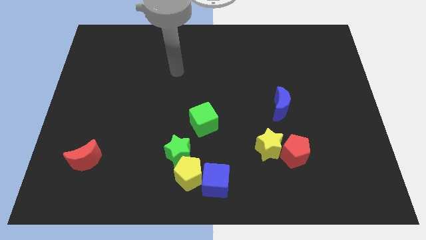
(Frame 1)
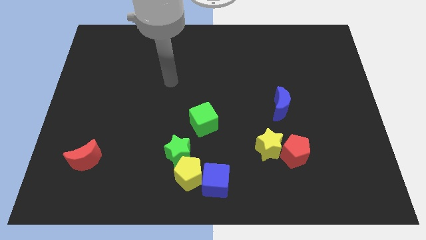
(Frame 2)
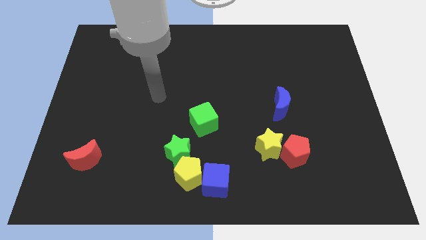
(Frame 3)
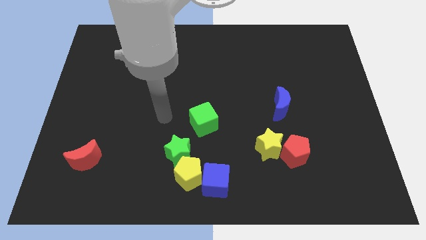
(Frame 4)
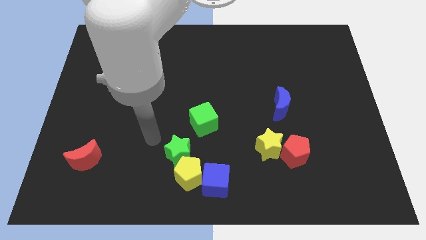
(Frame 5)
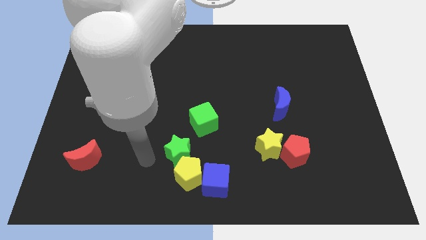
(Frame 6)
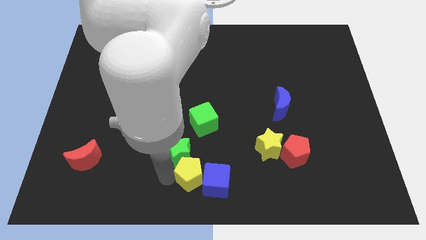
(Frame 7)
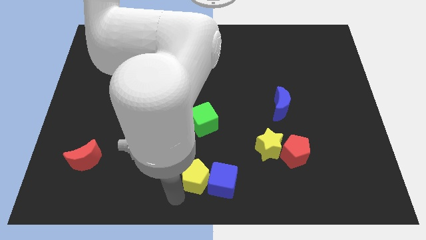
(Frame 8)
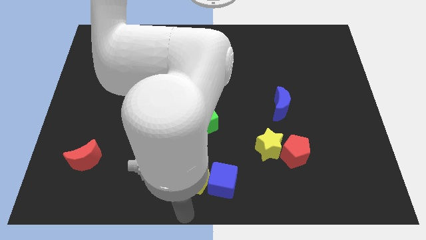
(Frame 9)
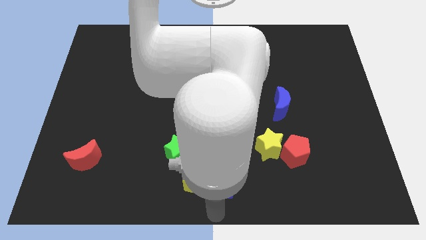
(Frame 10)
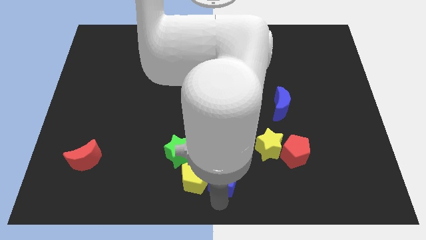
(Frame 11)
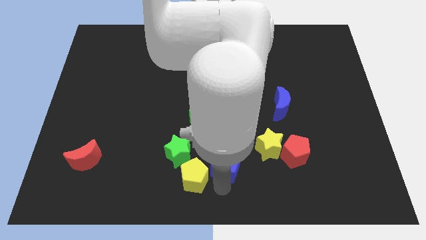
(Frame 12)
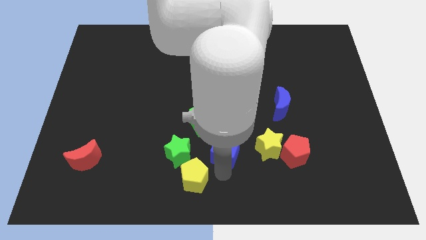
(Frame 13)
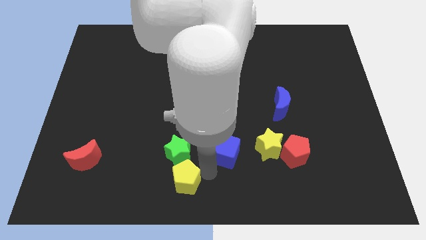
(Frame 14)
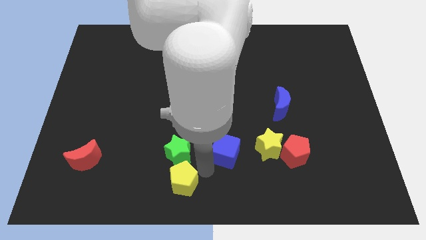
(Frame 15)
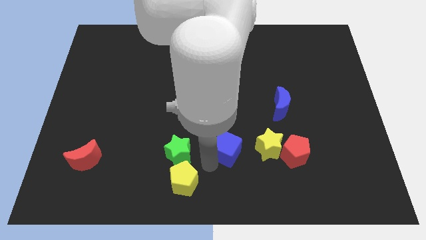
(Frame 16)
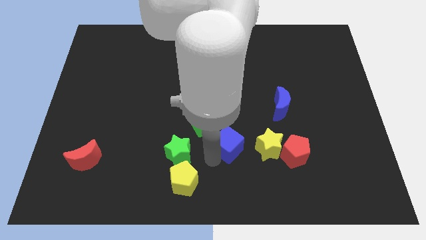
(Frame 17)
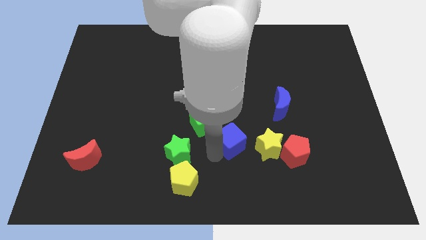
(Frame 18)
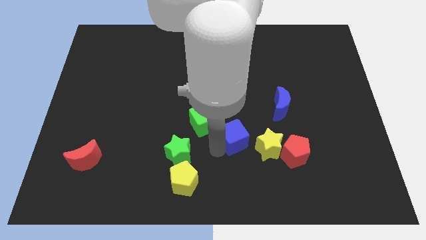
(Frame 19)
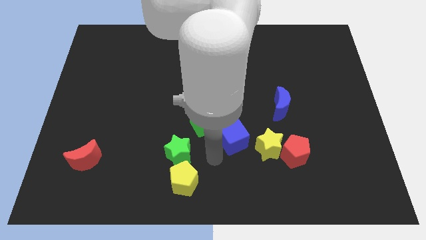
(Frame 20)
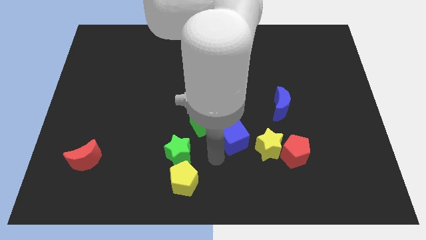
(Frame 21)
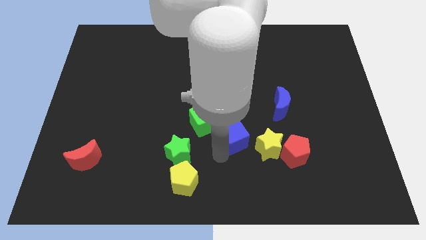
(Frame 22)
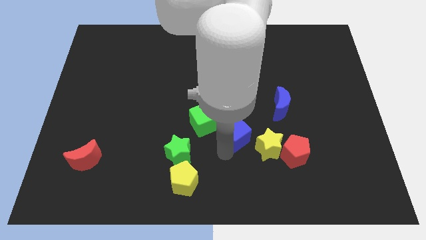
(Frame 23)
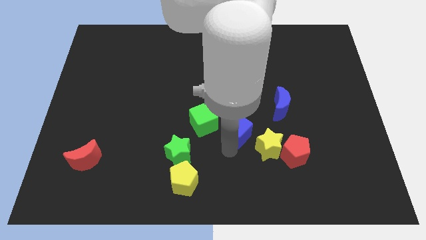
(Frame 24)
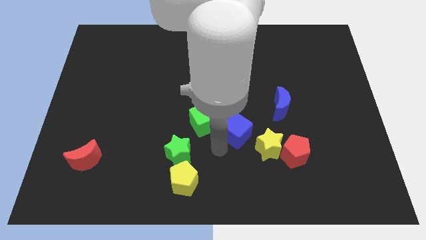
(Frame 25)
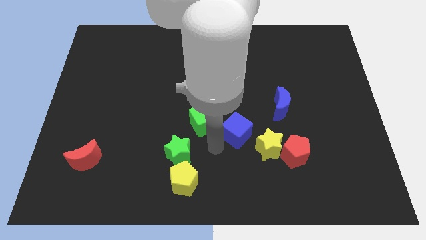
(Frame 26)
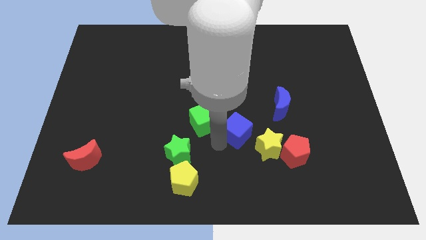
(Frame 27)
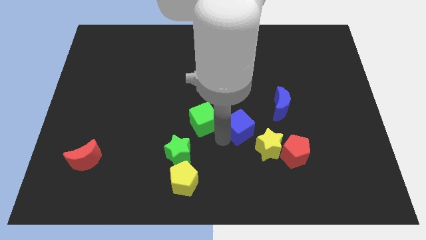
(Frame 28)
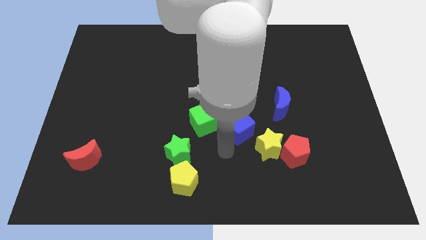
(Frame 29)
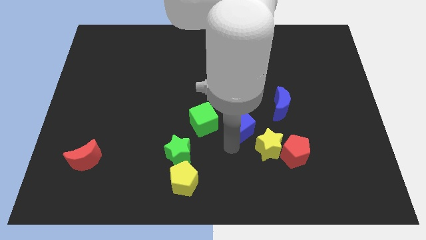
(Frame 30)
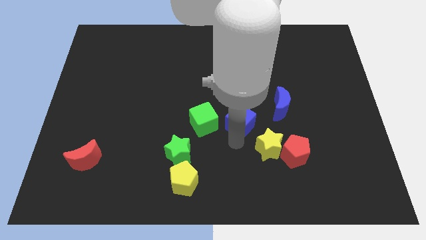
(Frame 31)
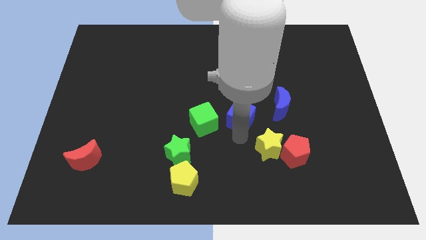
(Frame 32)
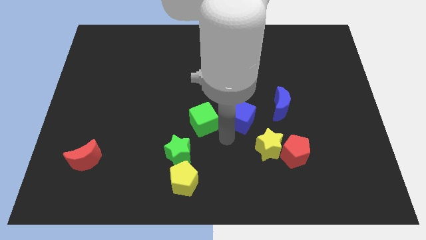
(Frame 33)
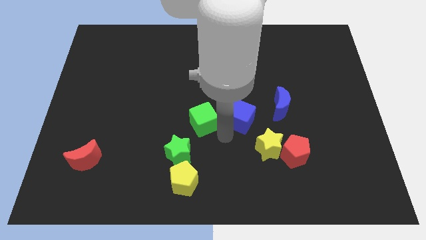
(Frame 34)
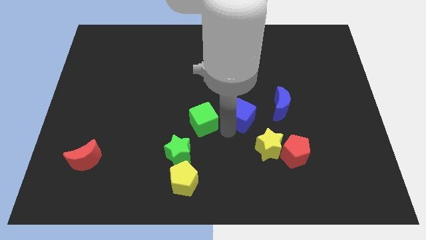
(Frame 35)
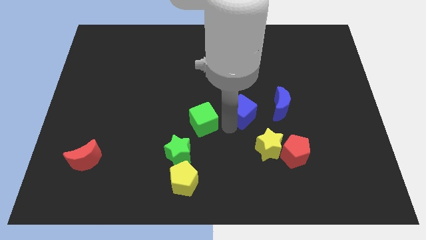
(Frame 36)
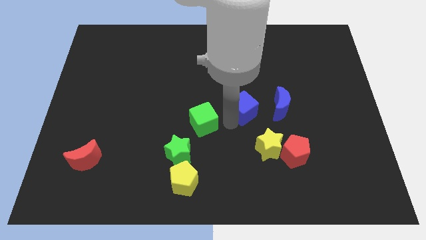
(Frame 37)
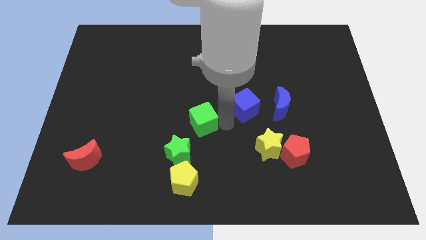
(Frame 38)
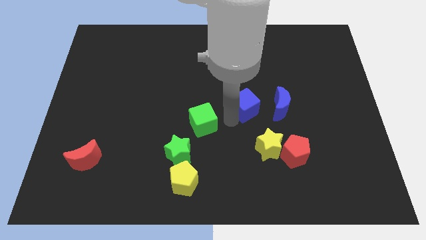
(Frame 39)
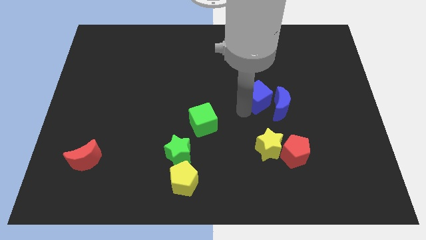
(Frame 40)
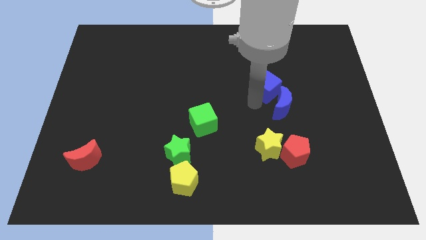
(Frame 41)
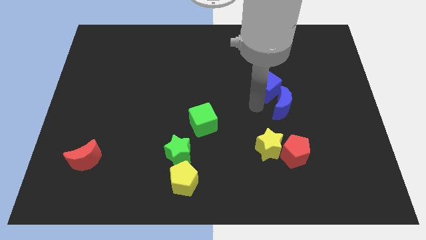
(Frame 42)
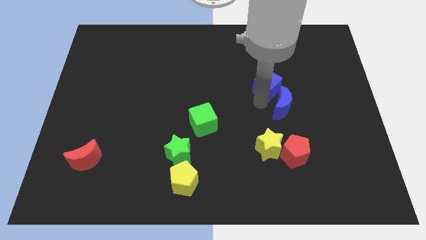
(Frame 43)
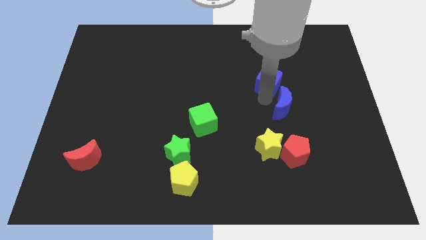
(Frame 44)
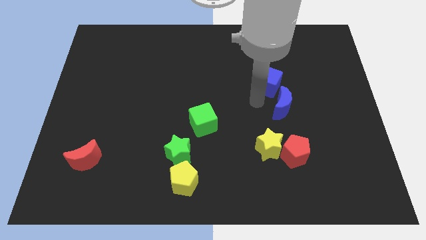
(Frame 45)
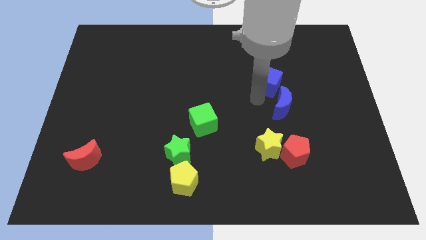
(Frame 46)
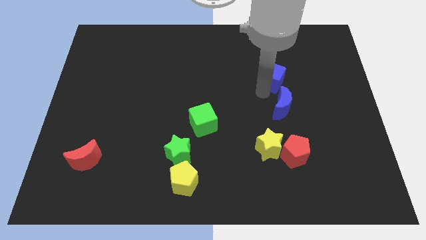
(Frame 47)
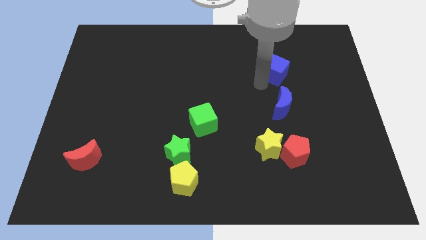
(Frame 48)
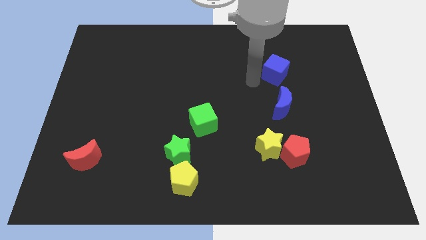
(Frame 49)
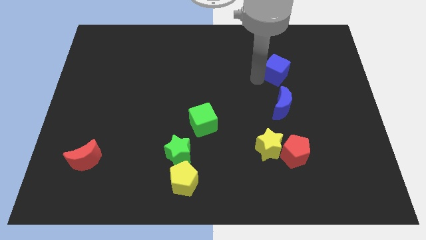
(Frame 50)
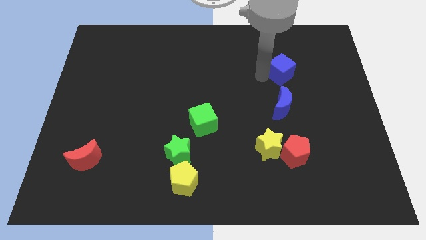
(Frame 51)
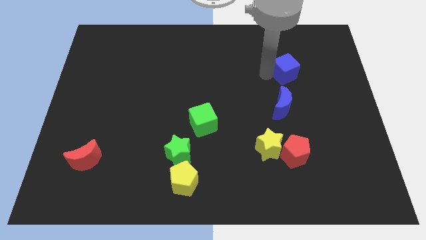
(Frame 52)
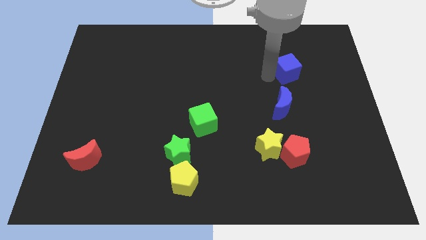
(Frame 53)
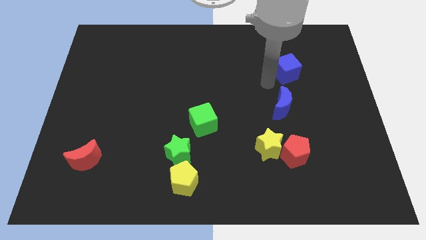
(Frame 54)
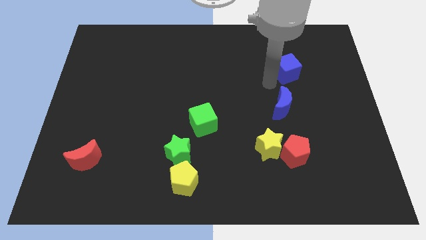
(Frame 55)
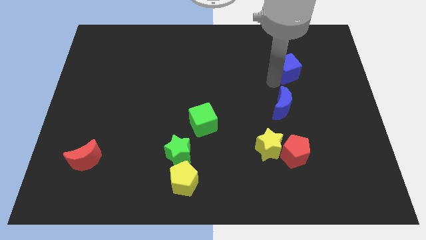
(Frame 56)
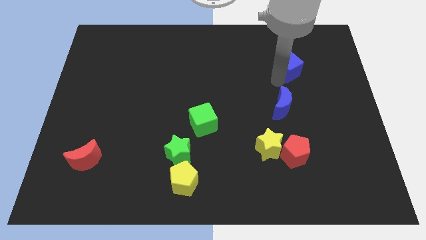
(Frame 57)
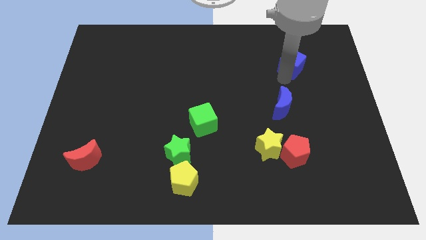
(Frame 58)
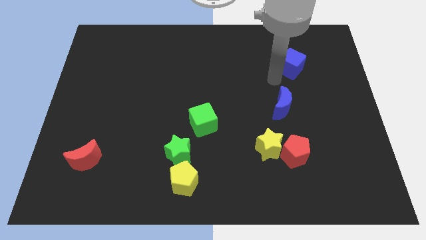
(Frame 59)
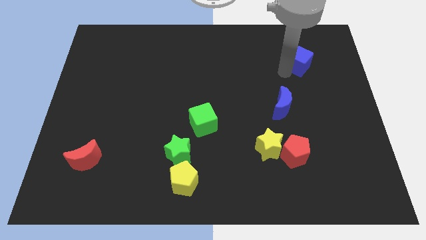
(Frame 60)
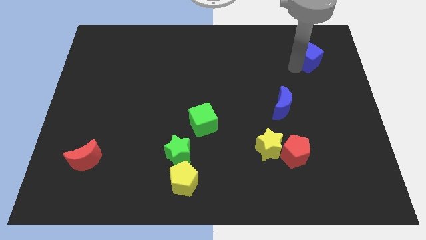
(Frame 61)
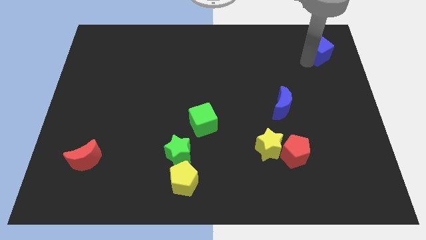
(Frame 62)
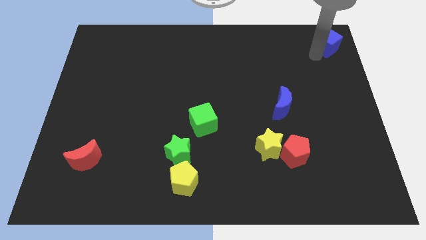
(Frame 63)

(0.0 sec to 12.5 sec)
put the blue cube to the top right of the board

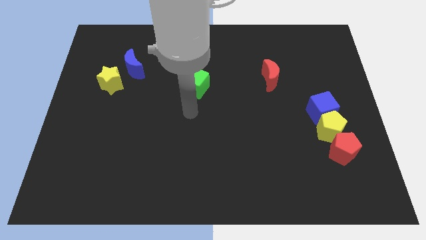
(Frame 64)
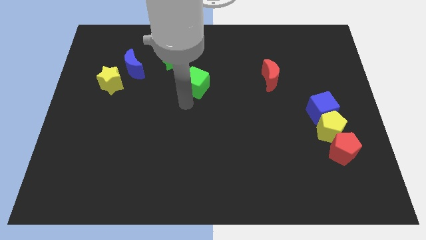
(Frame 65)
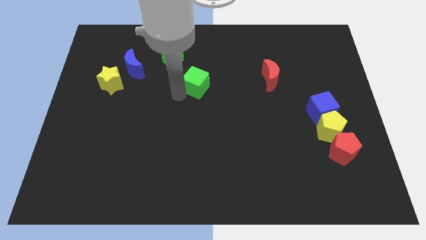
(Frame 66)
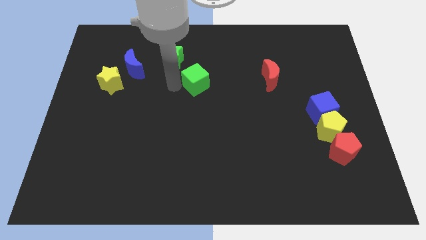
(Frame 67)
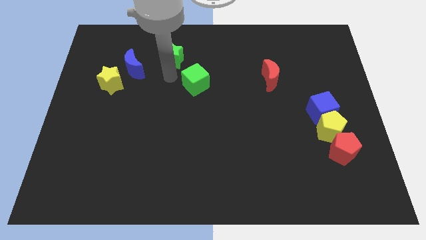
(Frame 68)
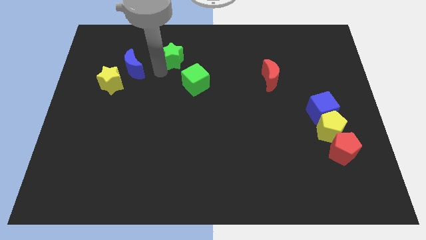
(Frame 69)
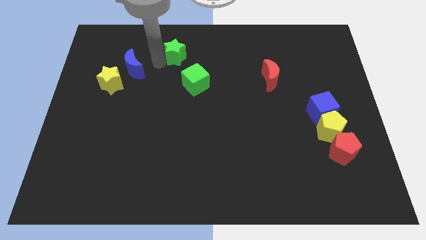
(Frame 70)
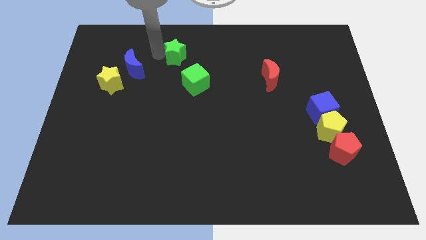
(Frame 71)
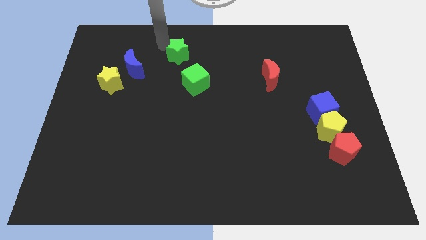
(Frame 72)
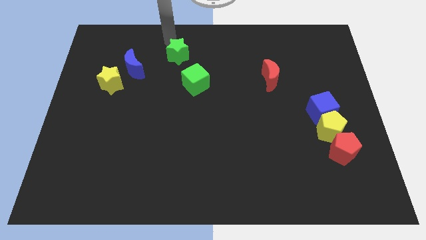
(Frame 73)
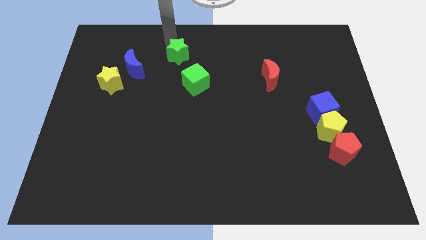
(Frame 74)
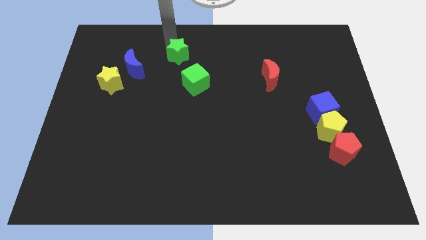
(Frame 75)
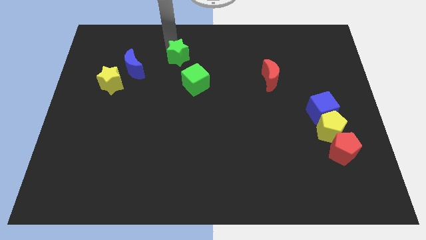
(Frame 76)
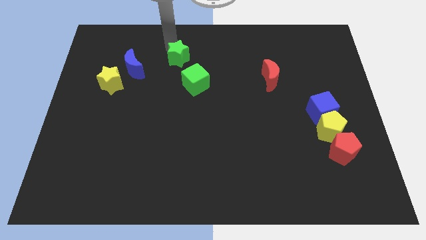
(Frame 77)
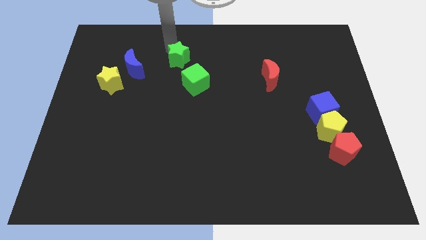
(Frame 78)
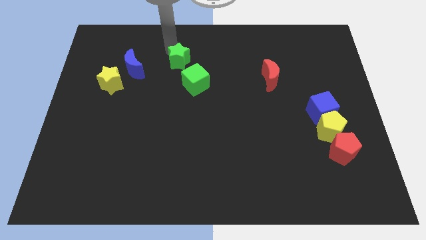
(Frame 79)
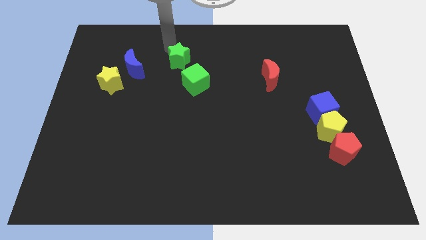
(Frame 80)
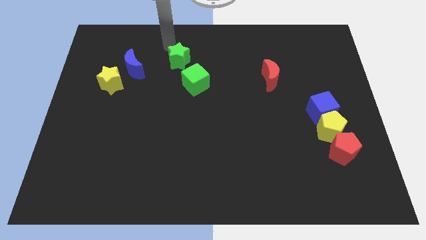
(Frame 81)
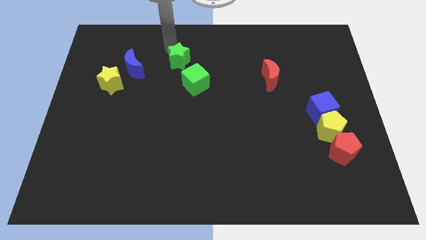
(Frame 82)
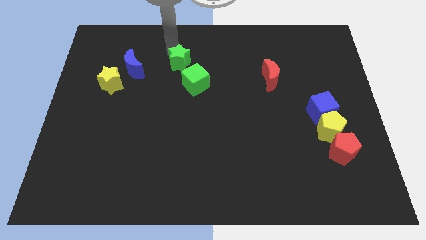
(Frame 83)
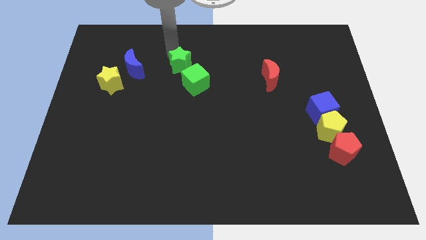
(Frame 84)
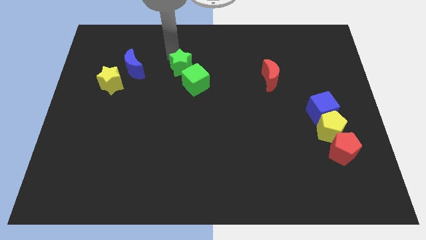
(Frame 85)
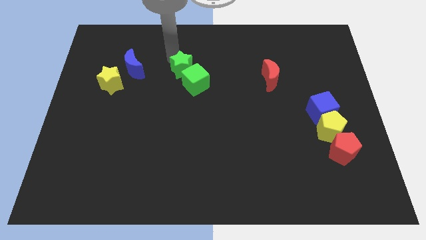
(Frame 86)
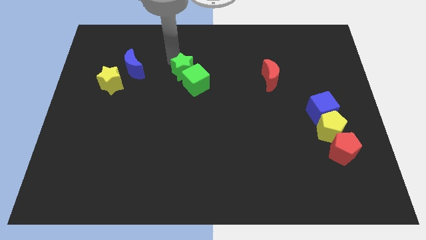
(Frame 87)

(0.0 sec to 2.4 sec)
put the green star to the middle of the board
